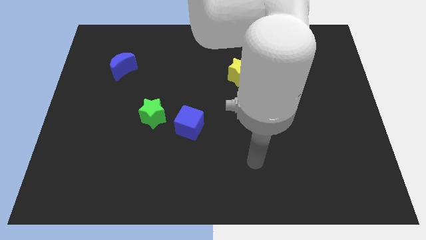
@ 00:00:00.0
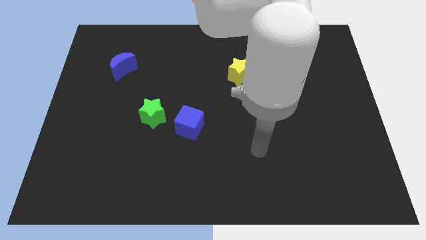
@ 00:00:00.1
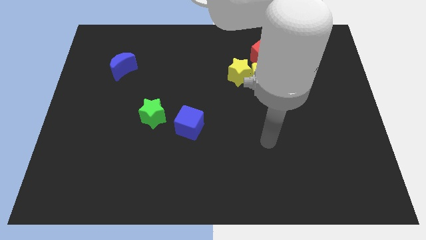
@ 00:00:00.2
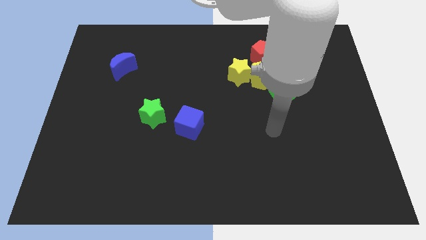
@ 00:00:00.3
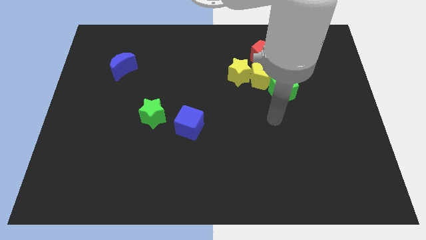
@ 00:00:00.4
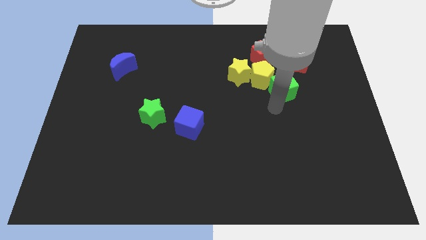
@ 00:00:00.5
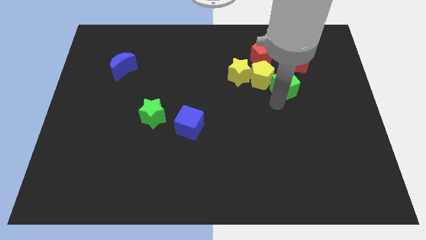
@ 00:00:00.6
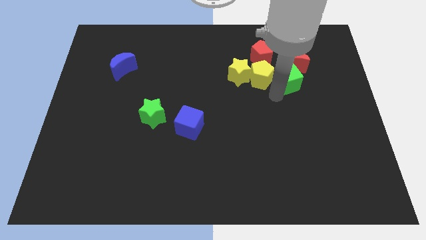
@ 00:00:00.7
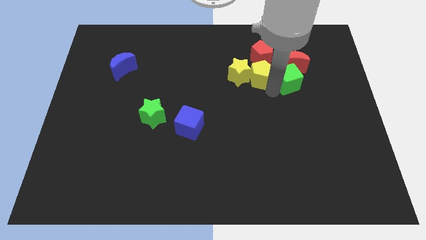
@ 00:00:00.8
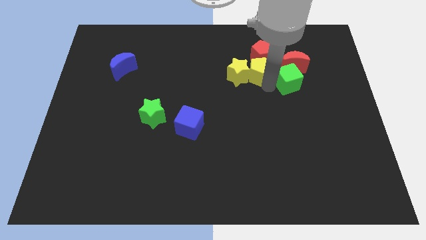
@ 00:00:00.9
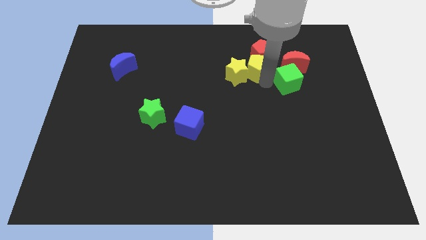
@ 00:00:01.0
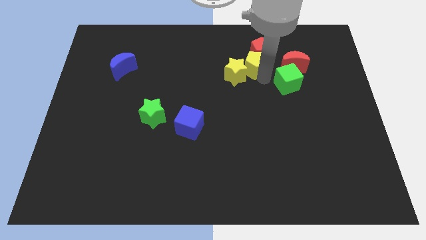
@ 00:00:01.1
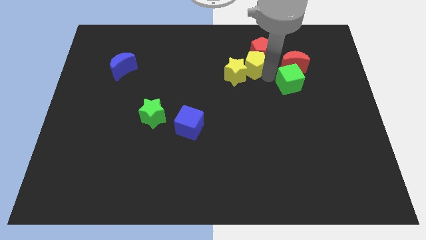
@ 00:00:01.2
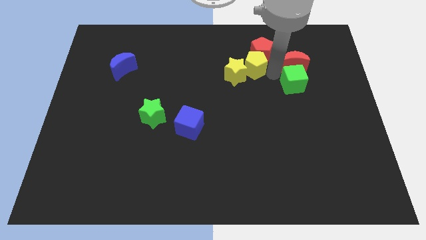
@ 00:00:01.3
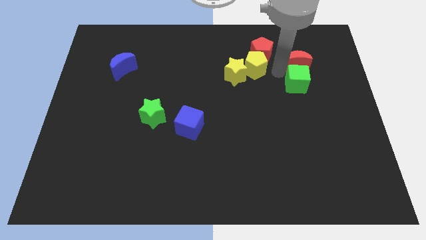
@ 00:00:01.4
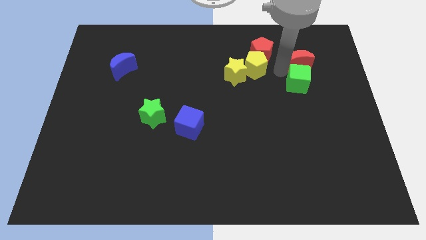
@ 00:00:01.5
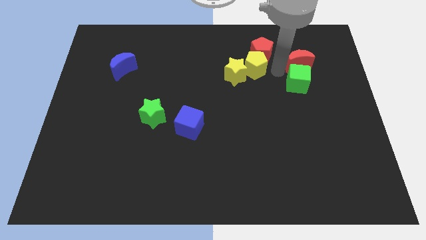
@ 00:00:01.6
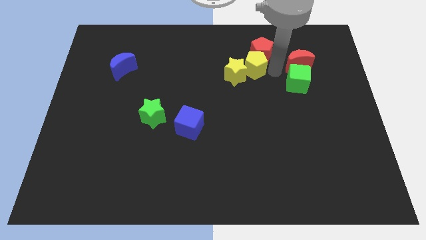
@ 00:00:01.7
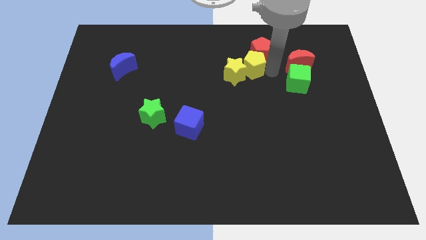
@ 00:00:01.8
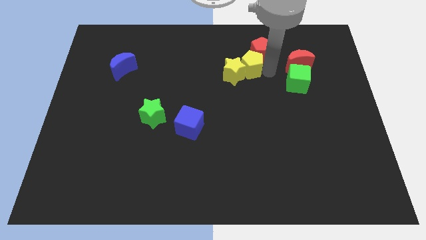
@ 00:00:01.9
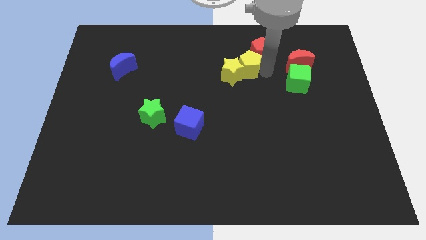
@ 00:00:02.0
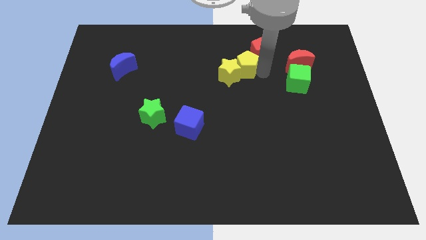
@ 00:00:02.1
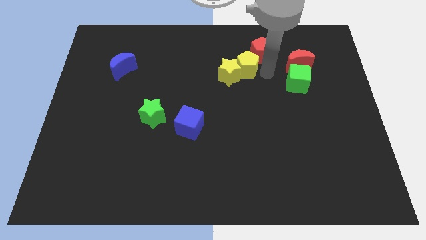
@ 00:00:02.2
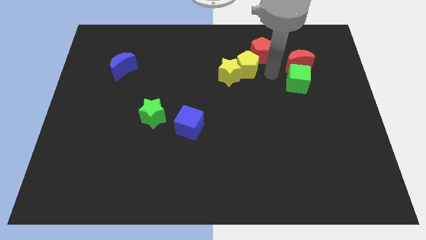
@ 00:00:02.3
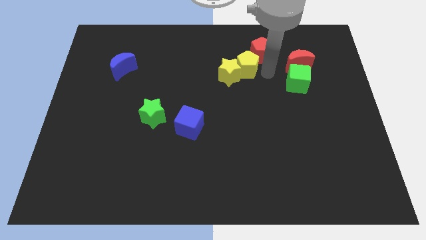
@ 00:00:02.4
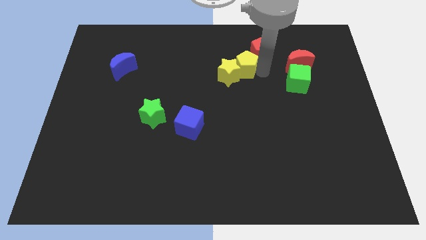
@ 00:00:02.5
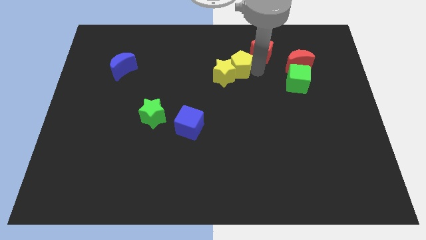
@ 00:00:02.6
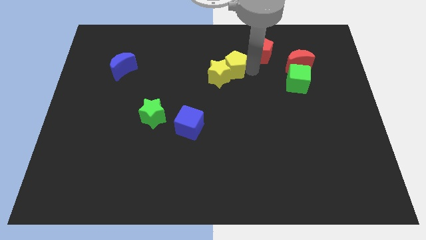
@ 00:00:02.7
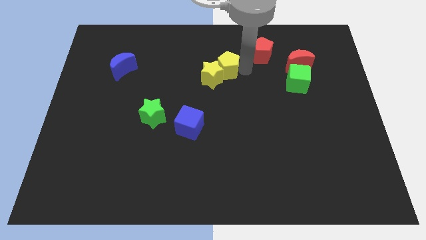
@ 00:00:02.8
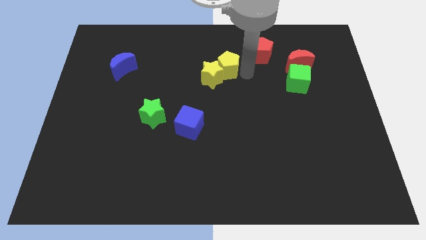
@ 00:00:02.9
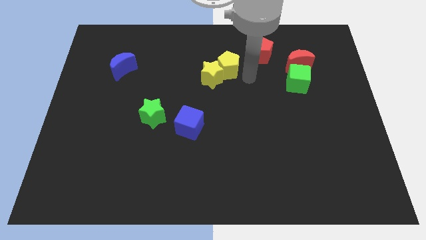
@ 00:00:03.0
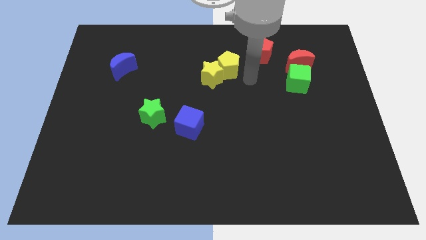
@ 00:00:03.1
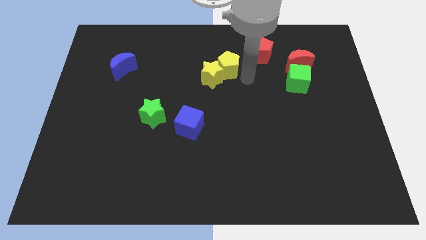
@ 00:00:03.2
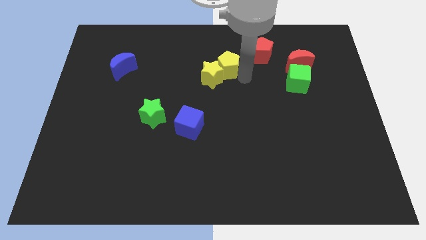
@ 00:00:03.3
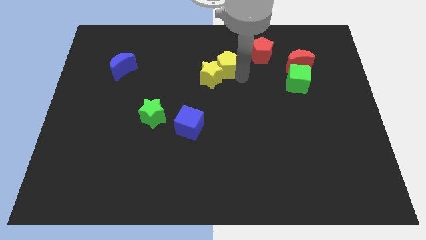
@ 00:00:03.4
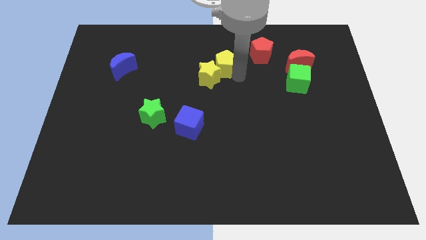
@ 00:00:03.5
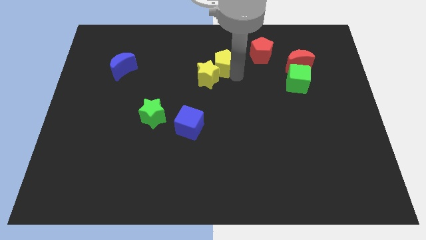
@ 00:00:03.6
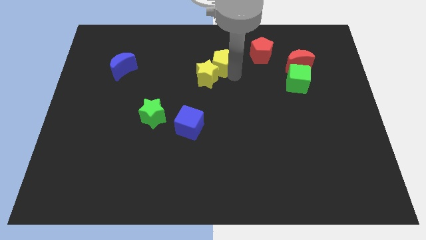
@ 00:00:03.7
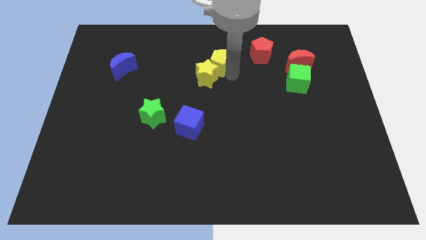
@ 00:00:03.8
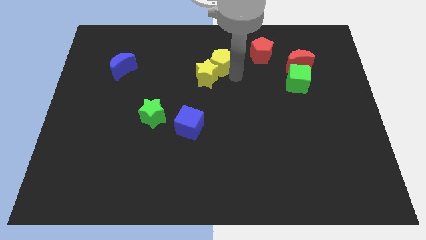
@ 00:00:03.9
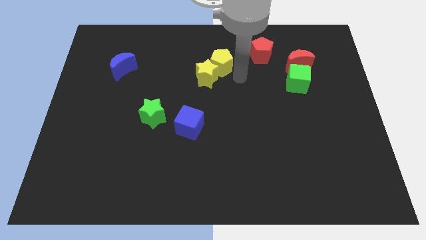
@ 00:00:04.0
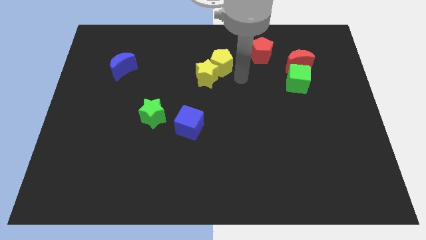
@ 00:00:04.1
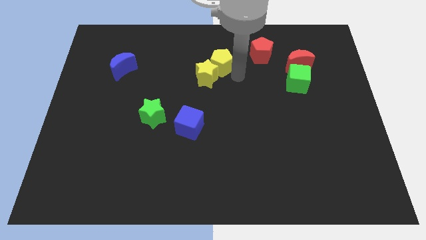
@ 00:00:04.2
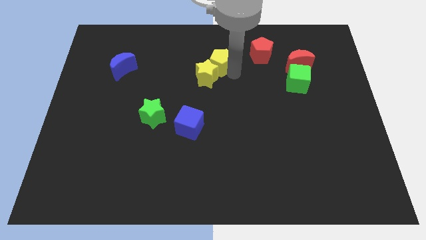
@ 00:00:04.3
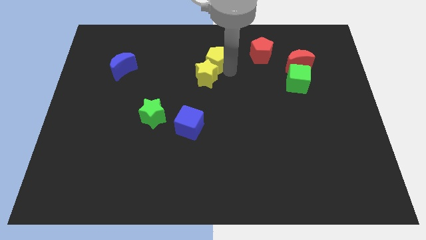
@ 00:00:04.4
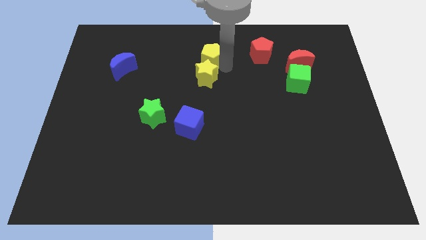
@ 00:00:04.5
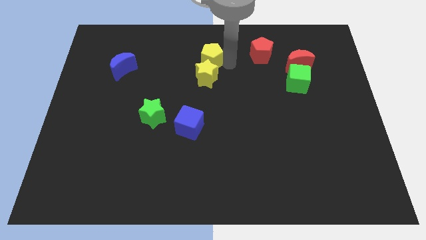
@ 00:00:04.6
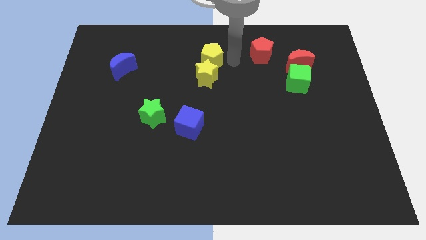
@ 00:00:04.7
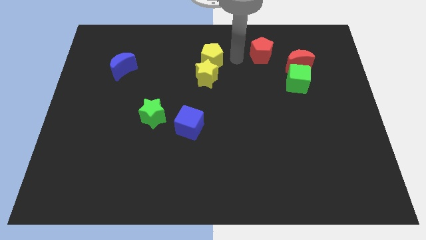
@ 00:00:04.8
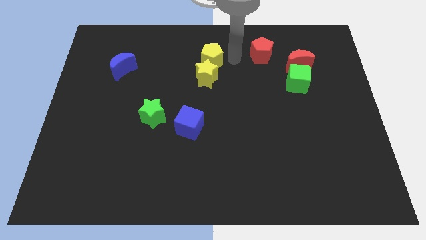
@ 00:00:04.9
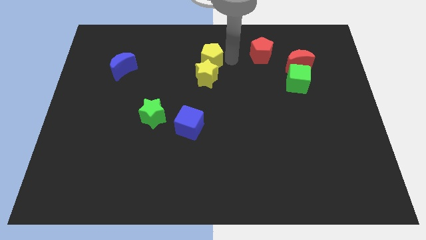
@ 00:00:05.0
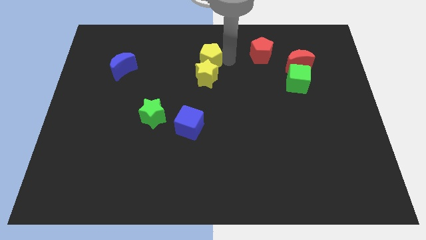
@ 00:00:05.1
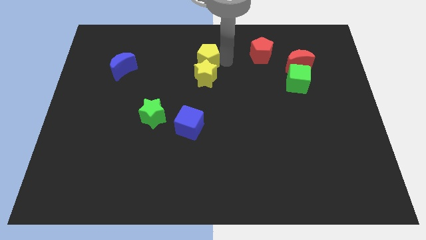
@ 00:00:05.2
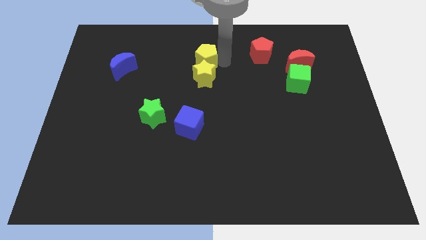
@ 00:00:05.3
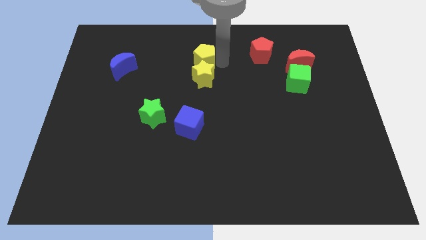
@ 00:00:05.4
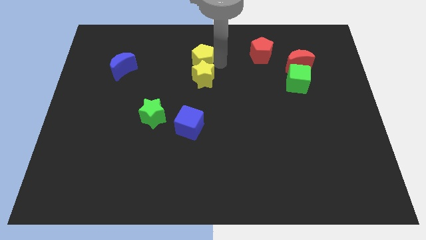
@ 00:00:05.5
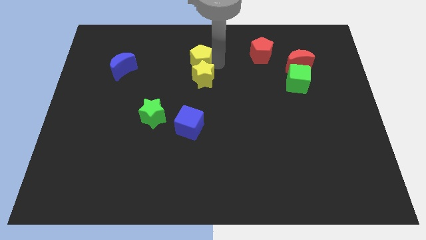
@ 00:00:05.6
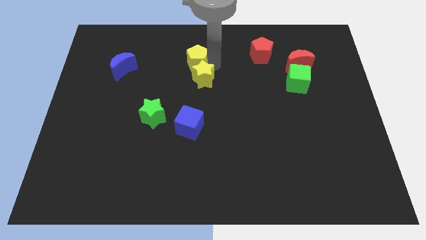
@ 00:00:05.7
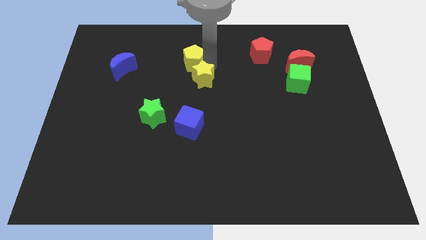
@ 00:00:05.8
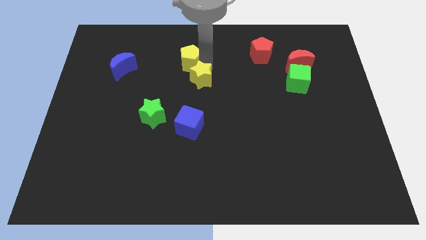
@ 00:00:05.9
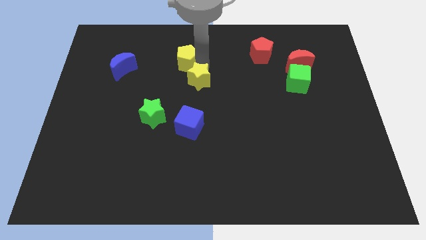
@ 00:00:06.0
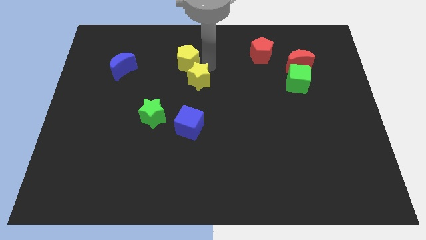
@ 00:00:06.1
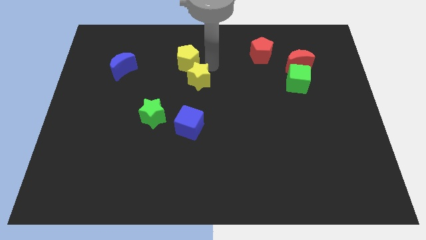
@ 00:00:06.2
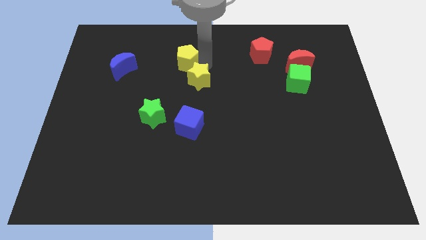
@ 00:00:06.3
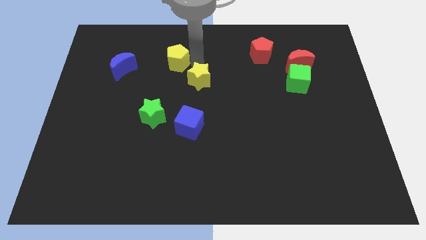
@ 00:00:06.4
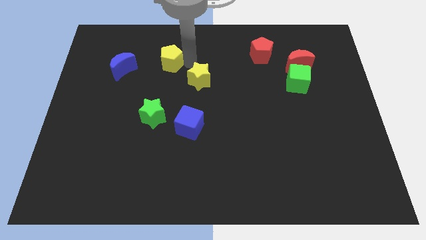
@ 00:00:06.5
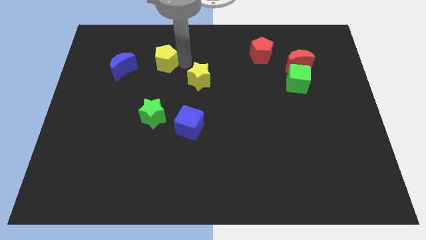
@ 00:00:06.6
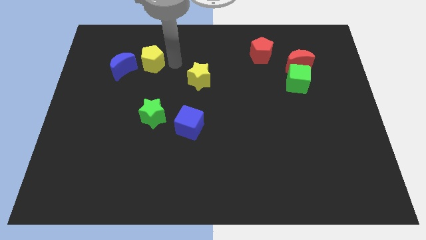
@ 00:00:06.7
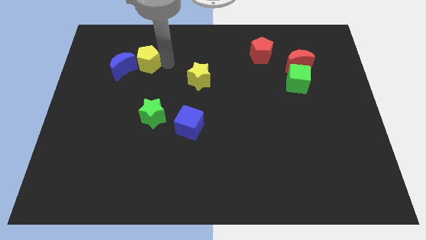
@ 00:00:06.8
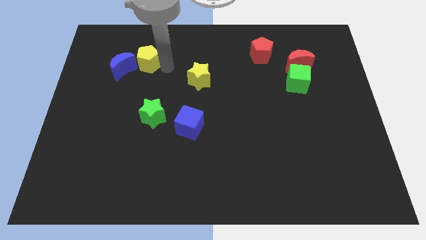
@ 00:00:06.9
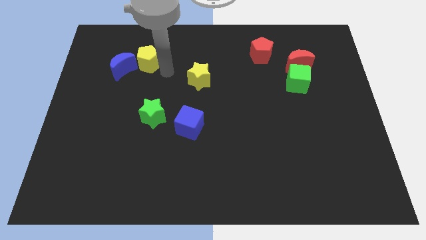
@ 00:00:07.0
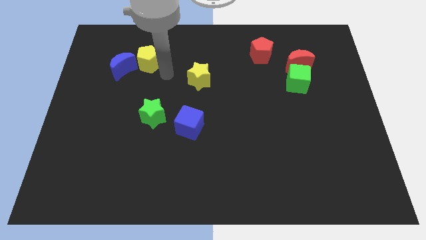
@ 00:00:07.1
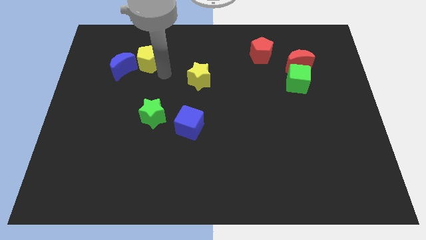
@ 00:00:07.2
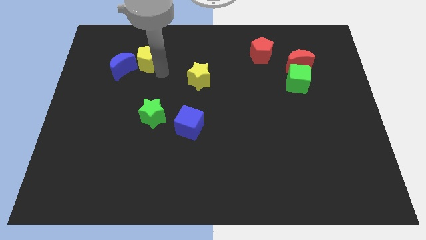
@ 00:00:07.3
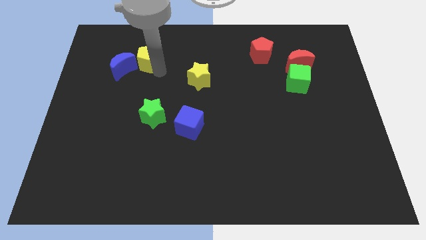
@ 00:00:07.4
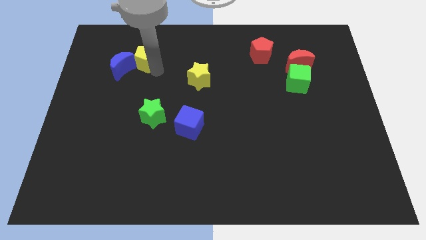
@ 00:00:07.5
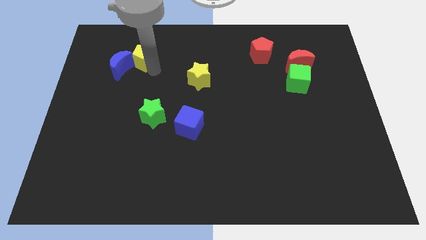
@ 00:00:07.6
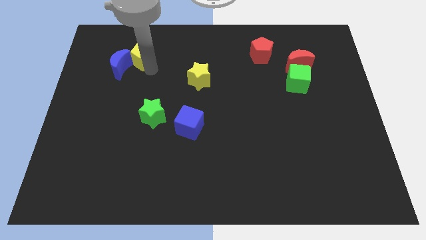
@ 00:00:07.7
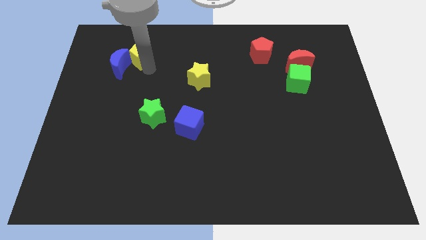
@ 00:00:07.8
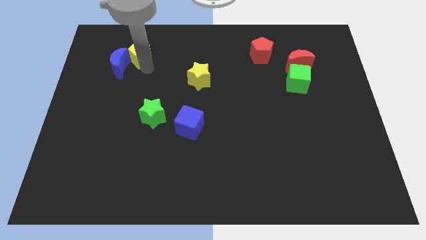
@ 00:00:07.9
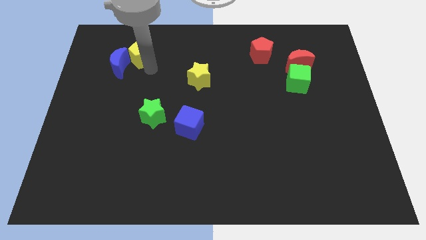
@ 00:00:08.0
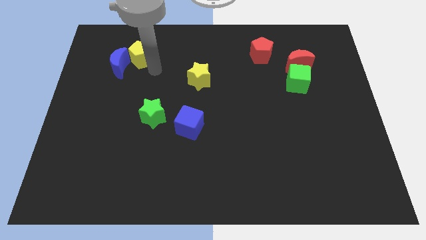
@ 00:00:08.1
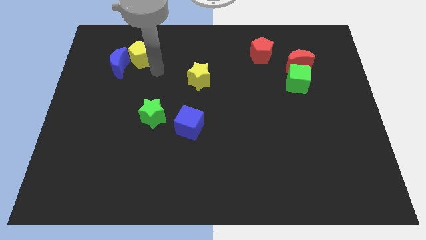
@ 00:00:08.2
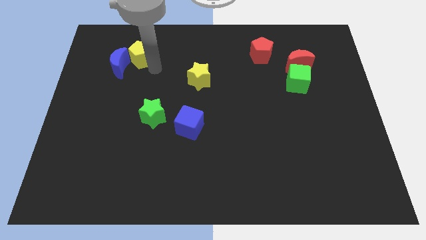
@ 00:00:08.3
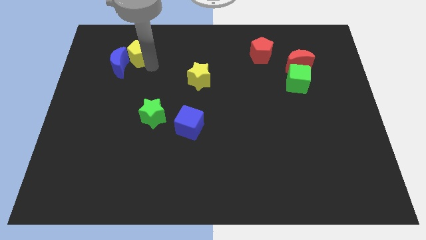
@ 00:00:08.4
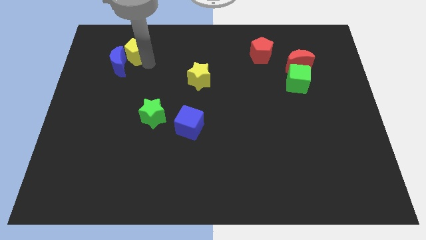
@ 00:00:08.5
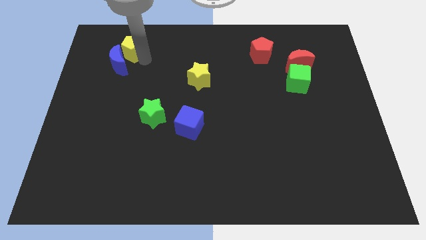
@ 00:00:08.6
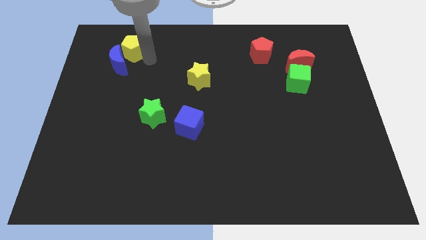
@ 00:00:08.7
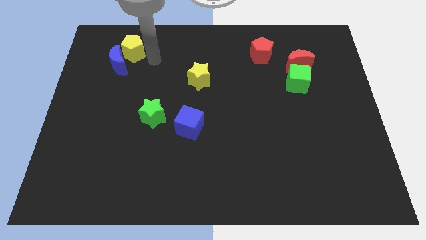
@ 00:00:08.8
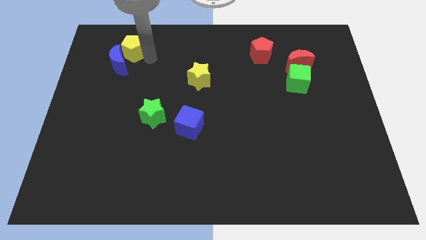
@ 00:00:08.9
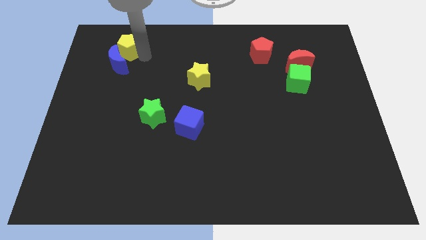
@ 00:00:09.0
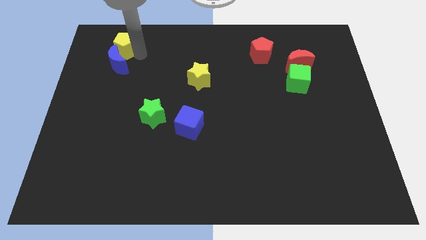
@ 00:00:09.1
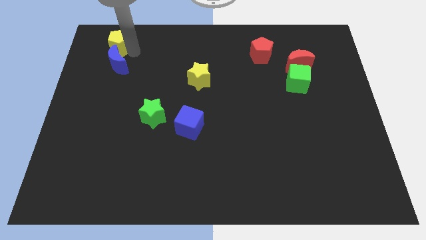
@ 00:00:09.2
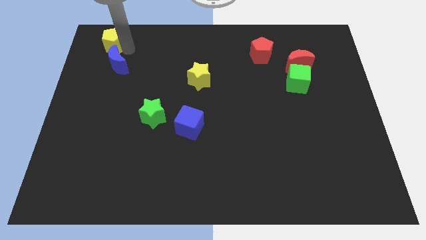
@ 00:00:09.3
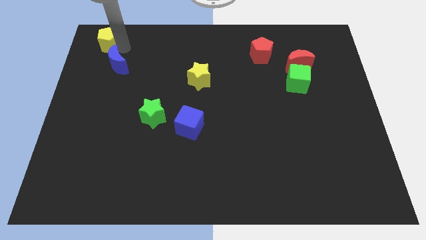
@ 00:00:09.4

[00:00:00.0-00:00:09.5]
put the yellow pentagon to the top left corner
